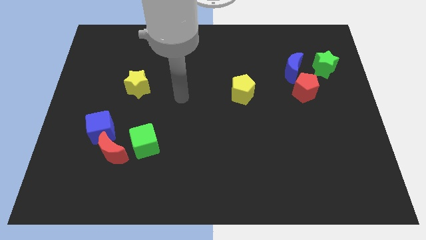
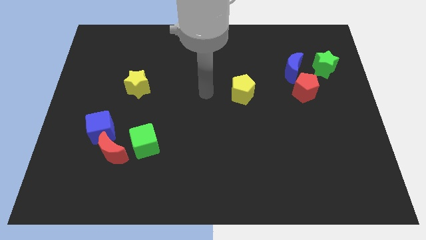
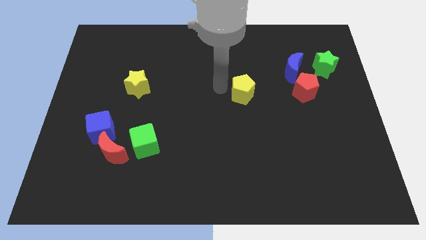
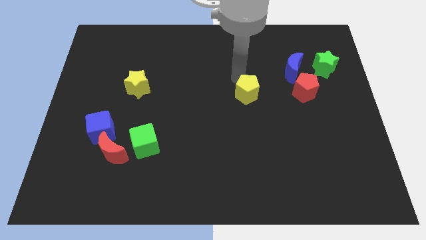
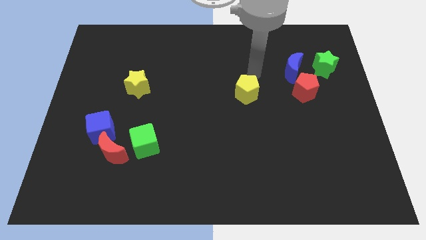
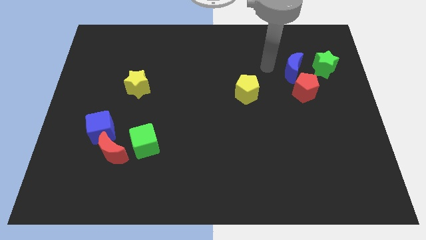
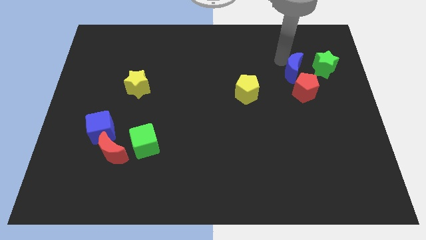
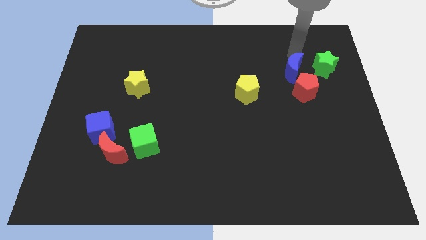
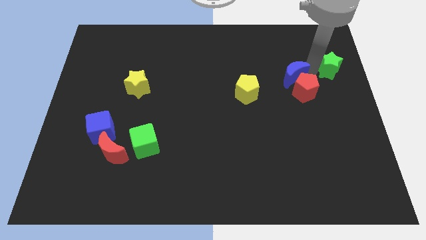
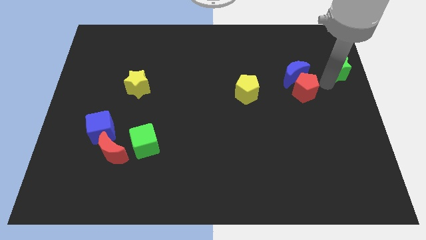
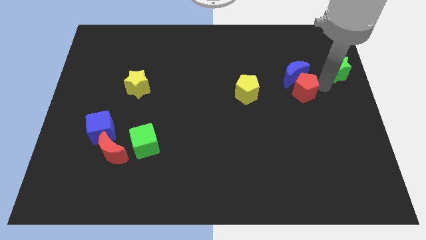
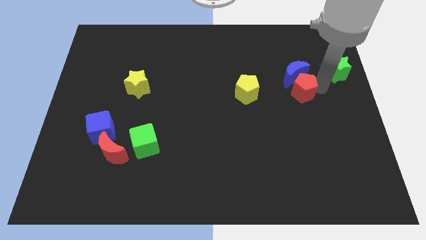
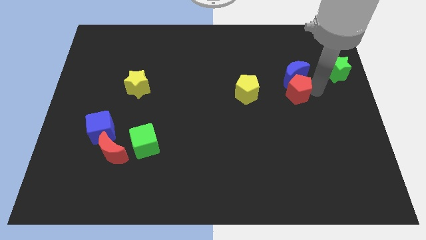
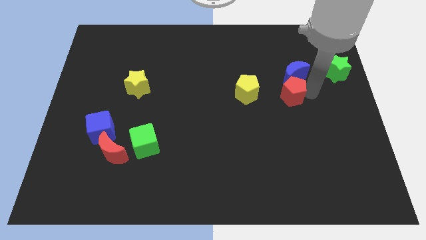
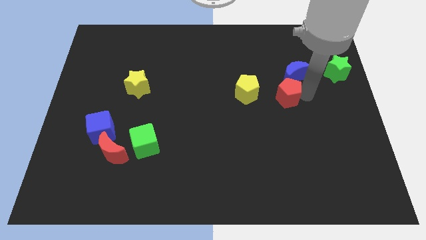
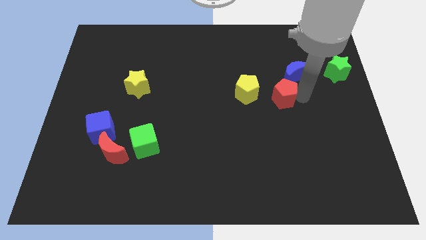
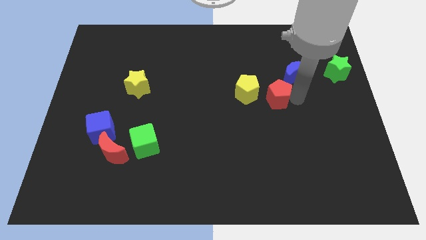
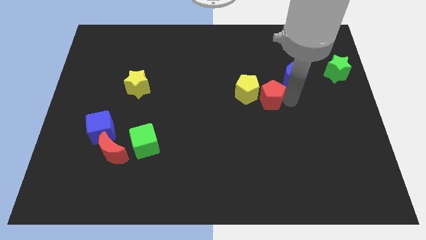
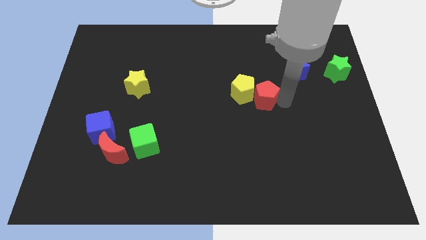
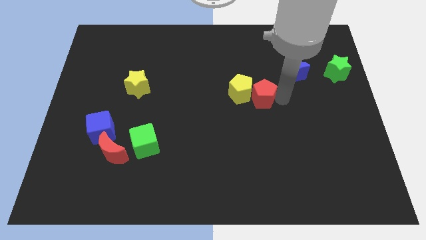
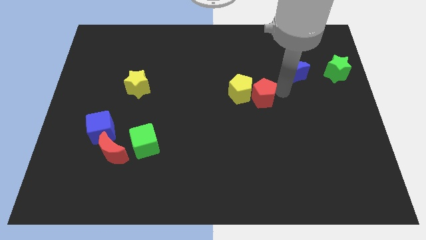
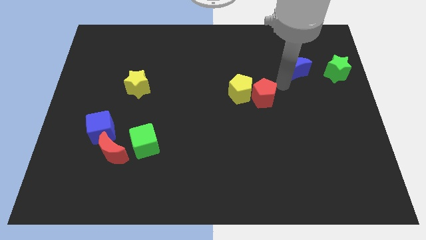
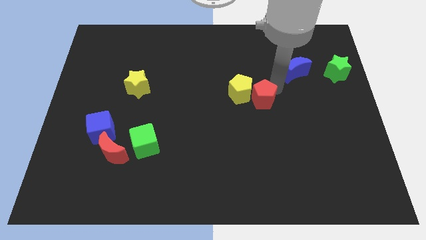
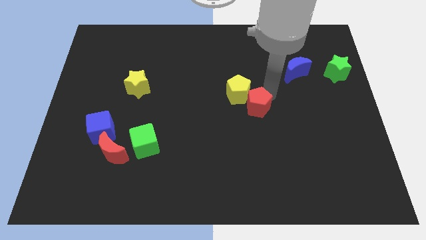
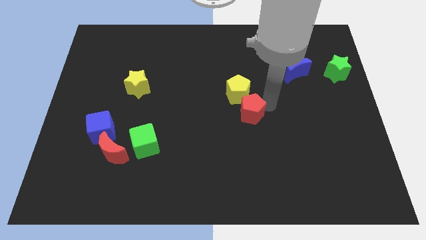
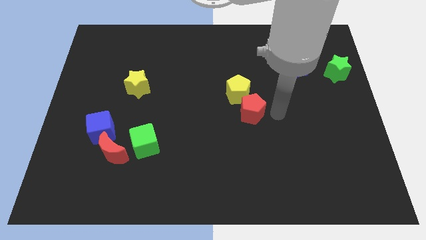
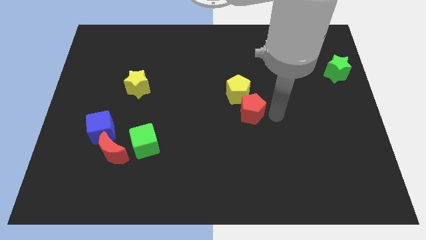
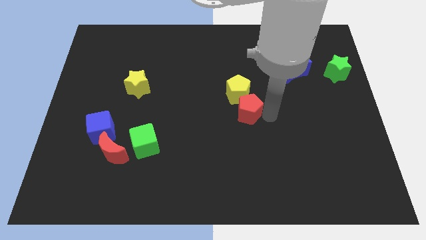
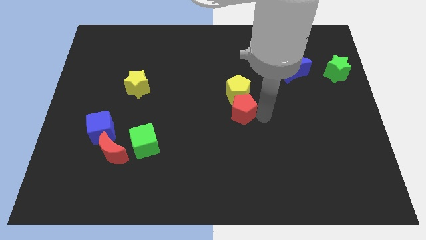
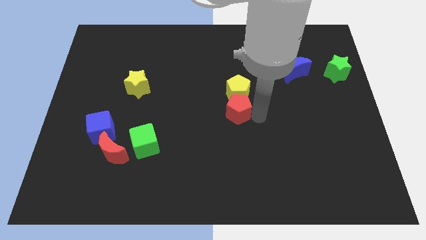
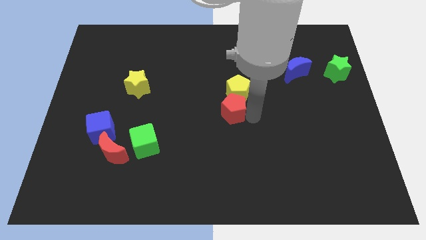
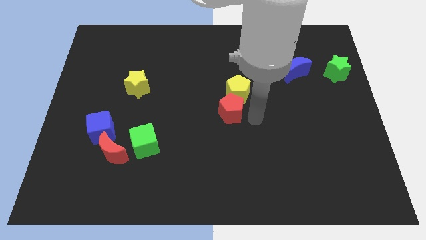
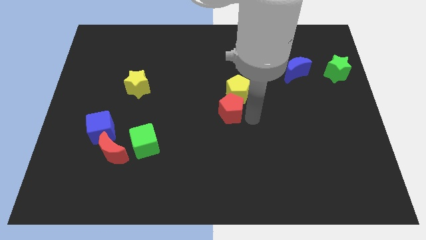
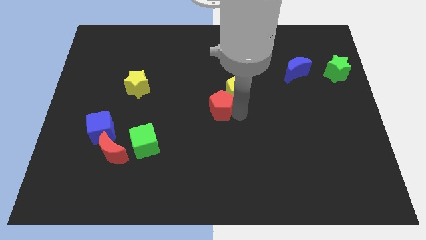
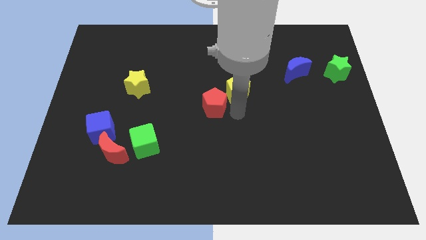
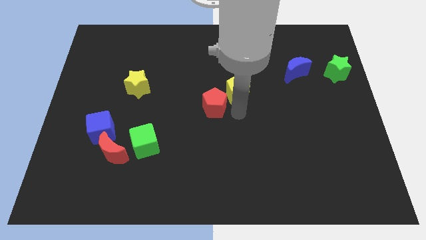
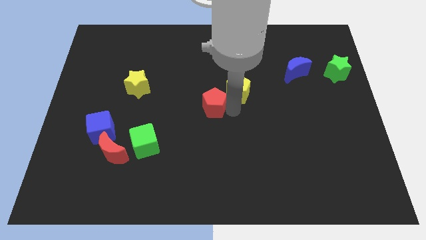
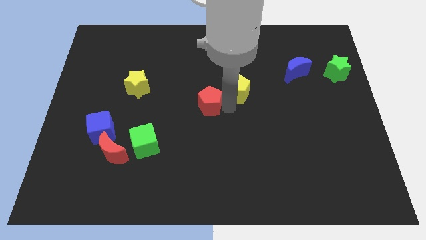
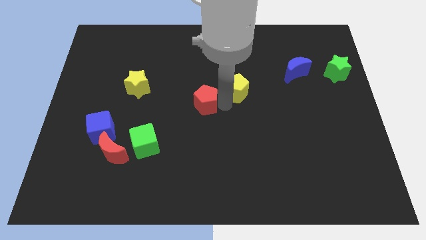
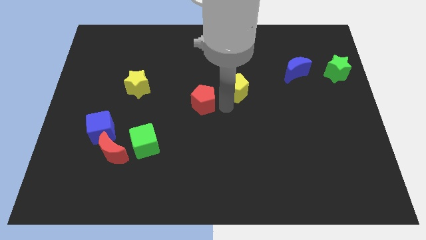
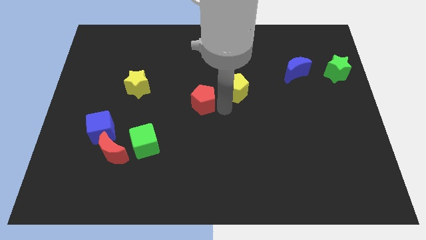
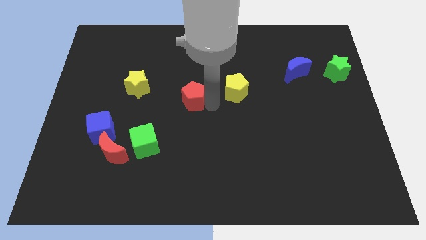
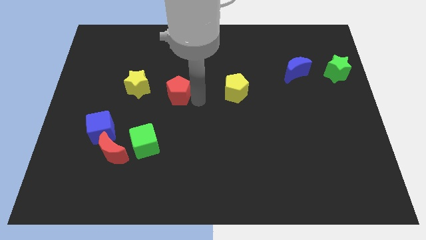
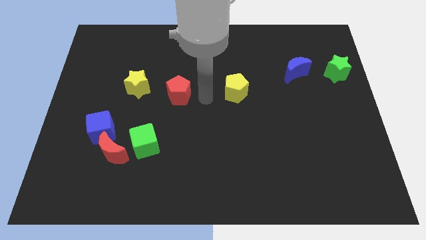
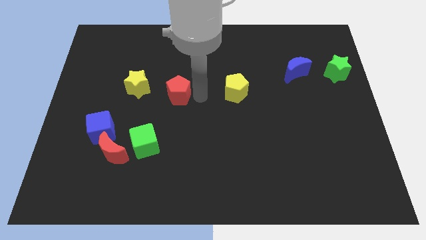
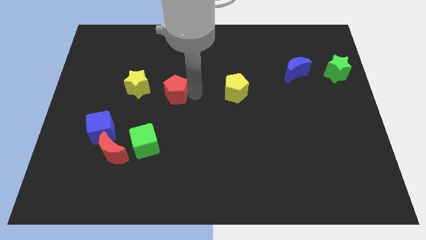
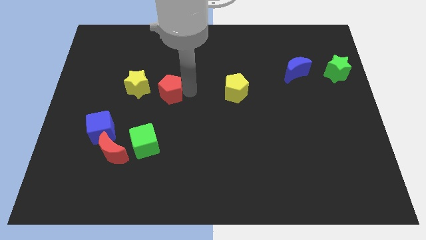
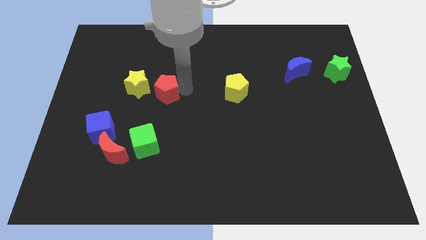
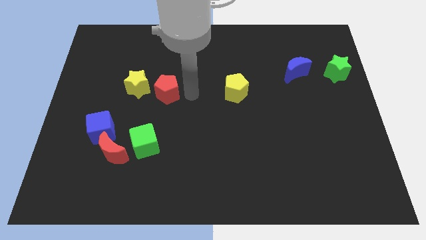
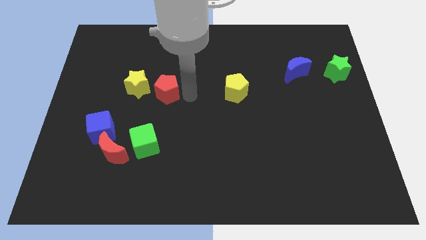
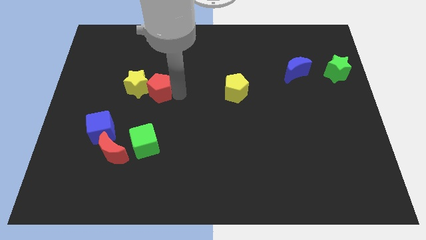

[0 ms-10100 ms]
put the red pentagon towards the yellow star

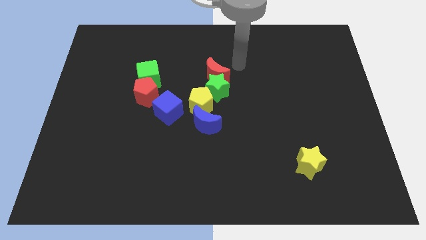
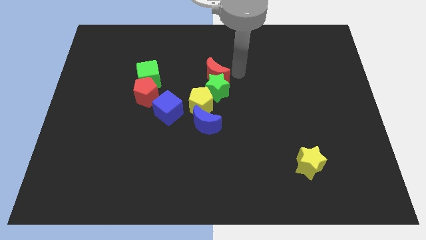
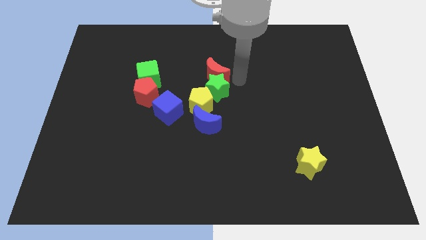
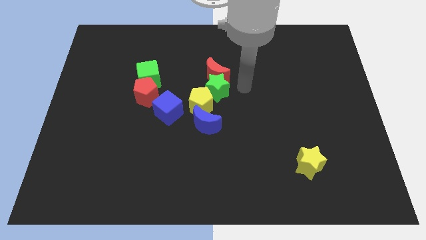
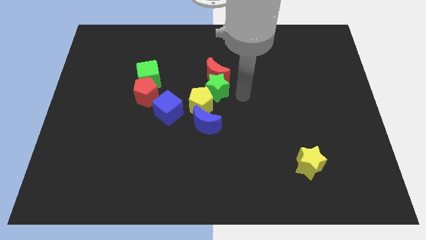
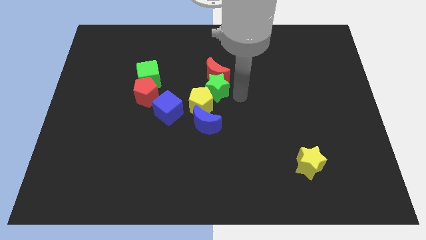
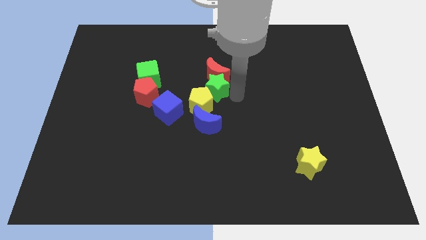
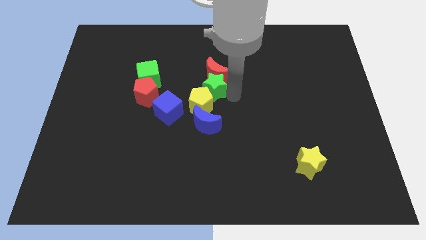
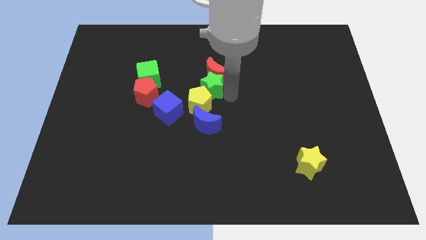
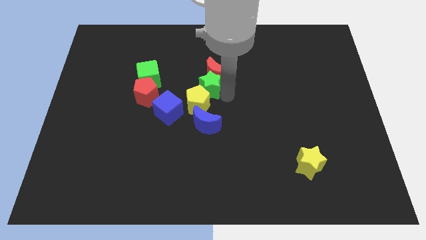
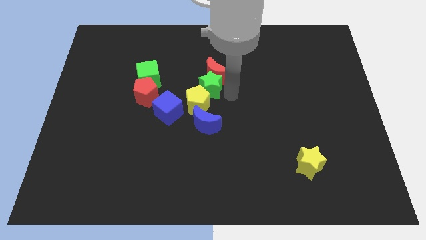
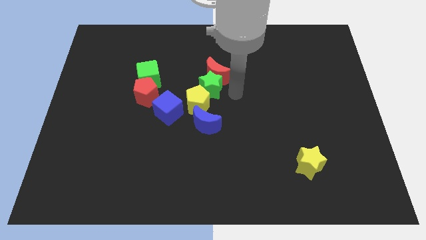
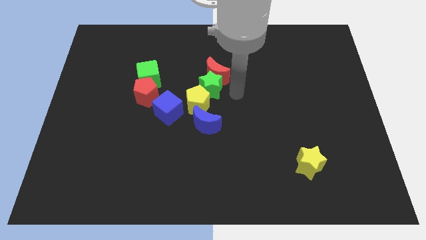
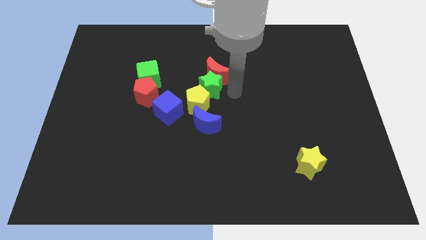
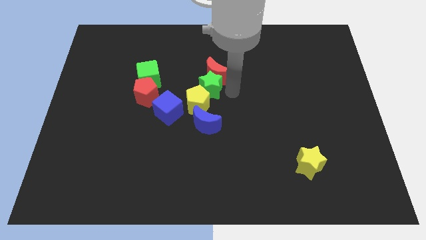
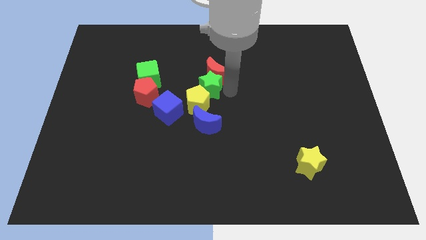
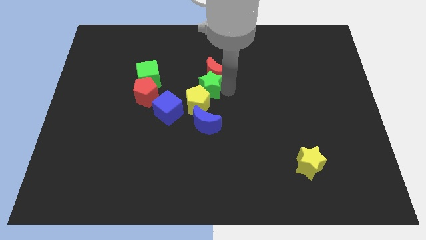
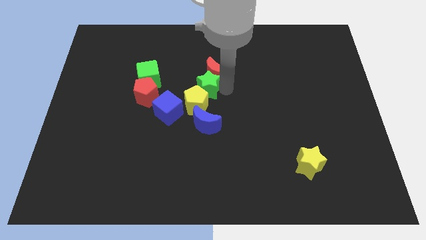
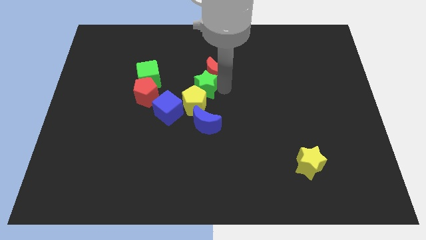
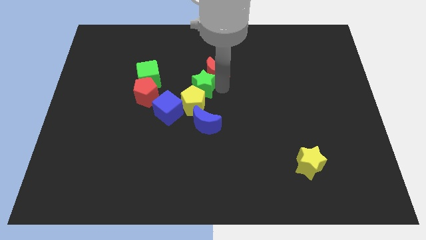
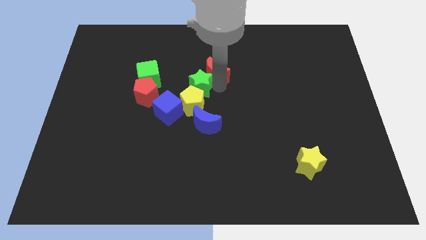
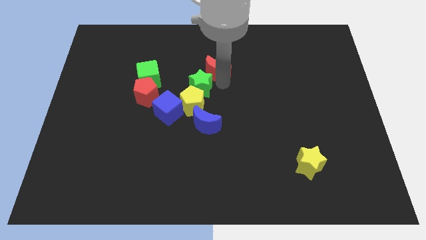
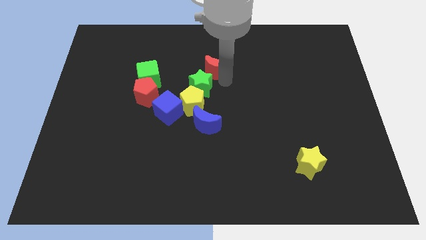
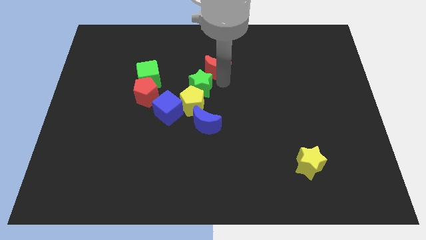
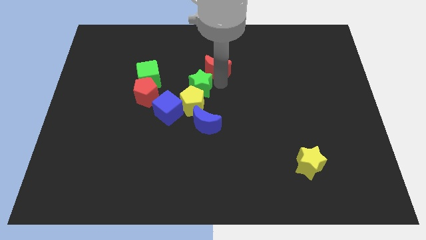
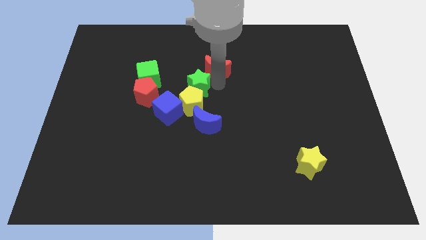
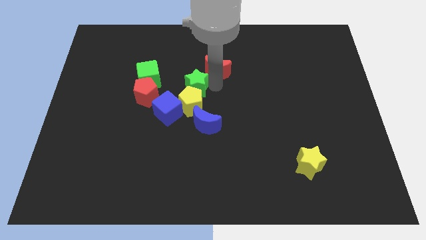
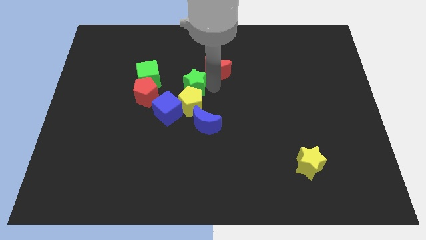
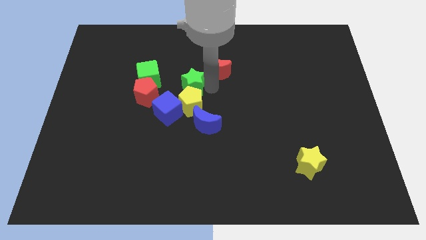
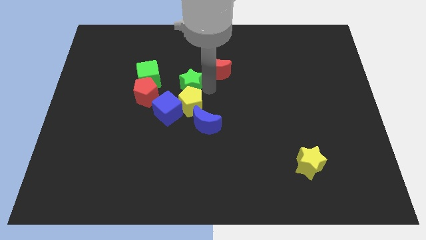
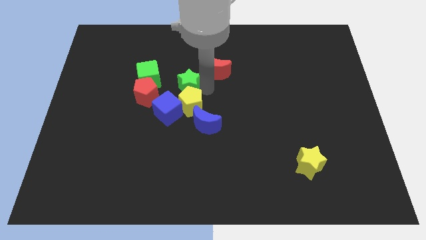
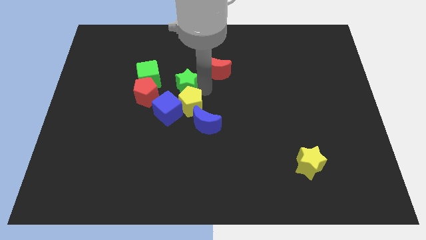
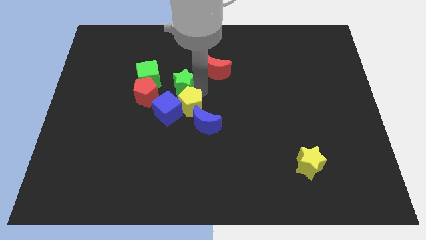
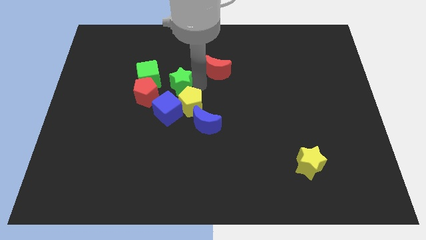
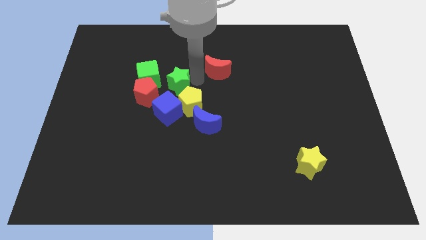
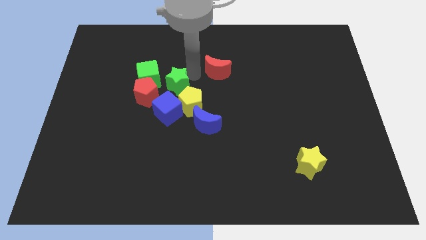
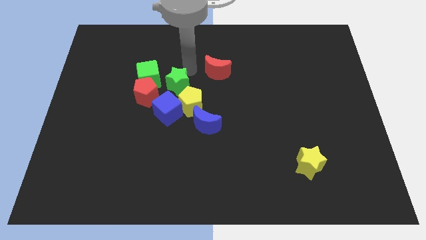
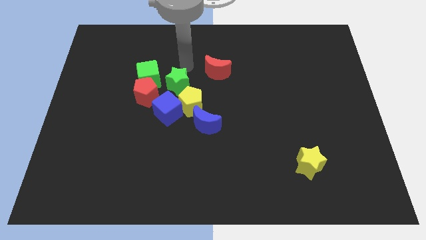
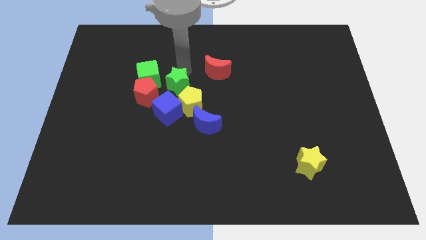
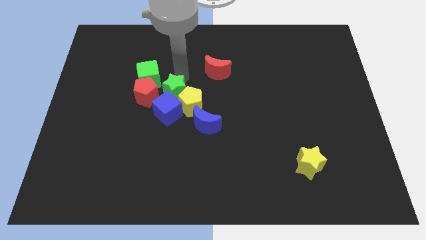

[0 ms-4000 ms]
push the green star next to the blue cube
